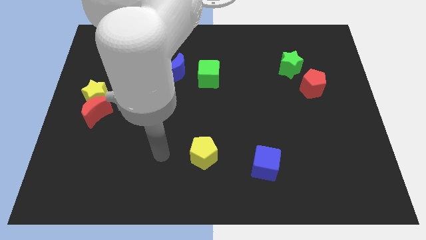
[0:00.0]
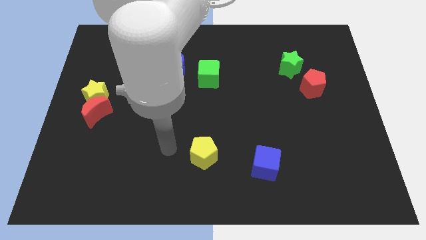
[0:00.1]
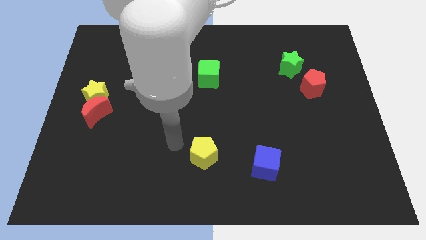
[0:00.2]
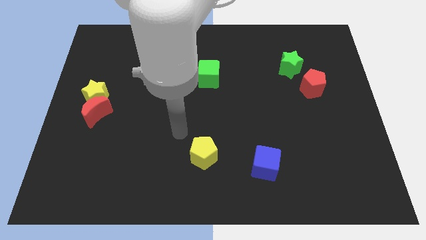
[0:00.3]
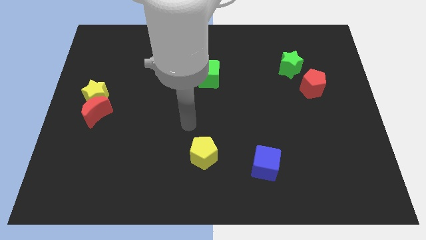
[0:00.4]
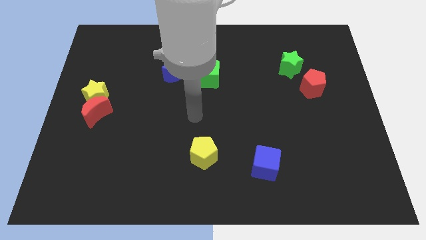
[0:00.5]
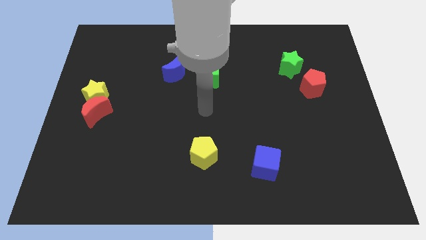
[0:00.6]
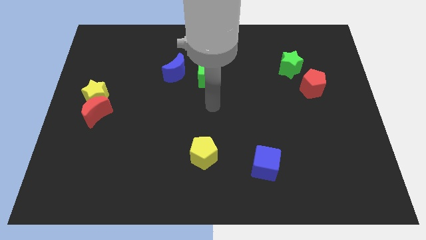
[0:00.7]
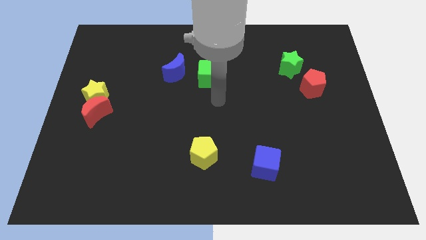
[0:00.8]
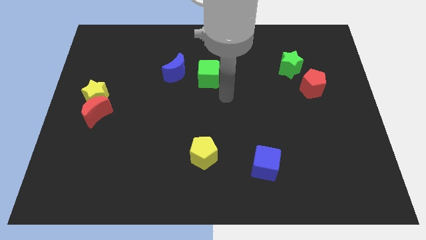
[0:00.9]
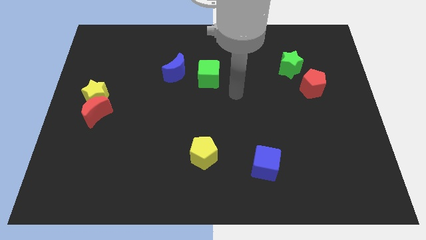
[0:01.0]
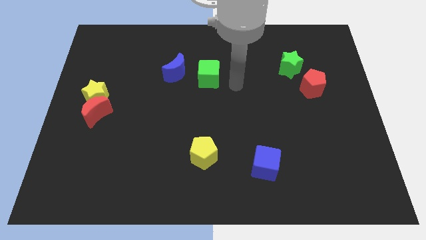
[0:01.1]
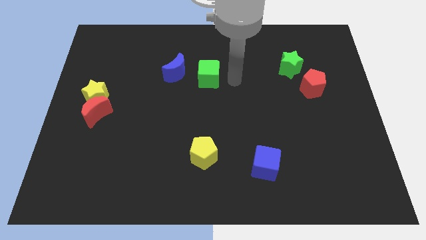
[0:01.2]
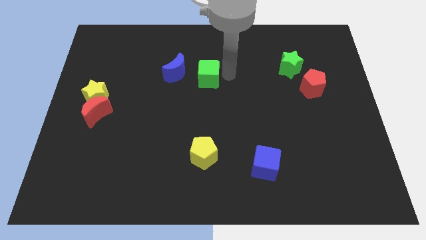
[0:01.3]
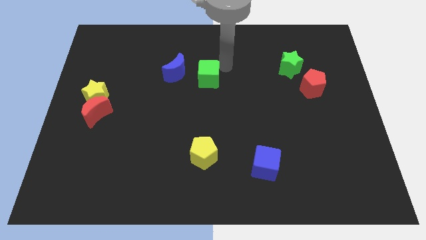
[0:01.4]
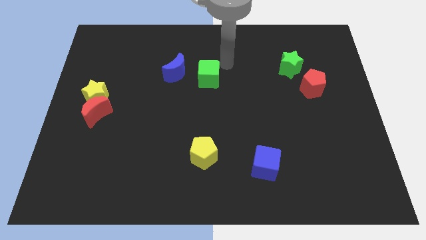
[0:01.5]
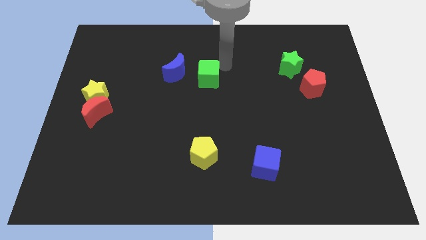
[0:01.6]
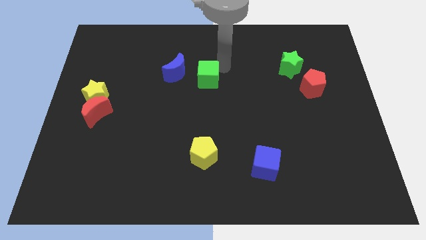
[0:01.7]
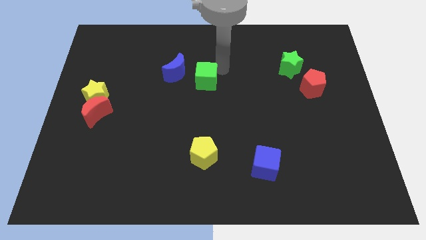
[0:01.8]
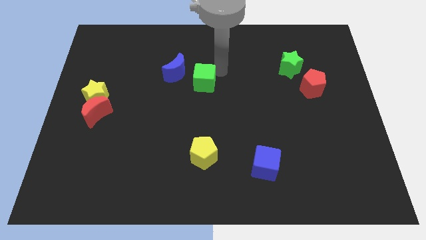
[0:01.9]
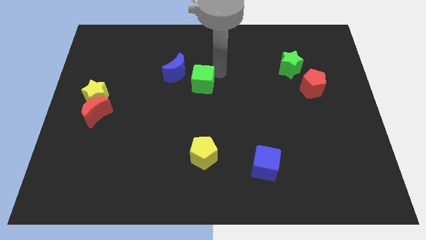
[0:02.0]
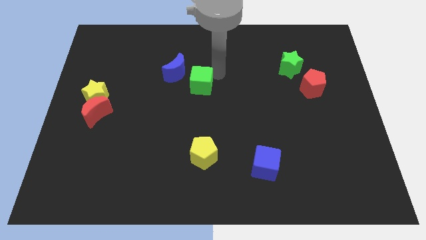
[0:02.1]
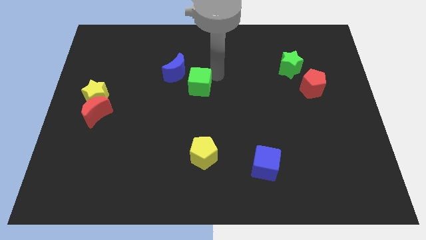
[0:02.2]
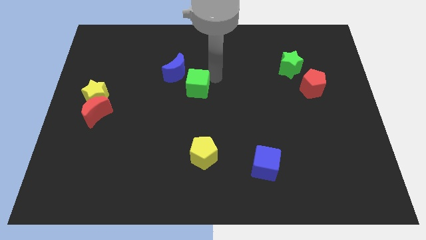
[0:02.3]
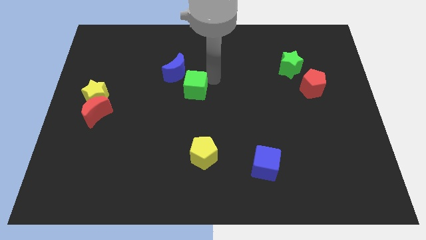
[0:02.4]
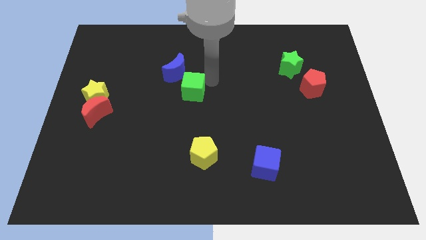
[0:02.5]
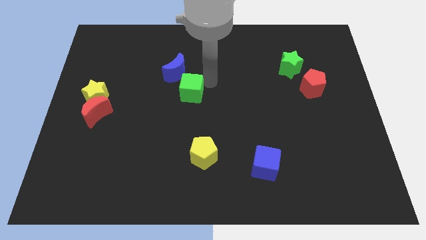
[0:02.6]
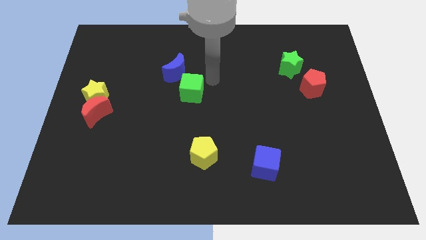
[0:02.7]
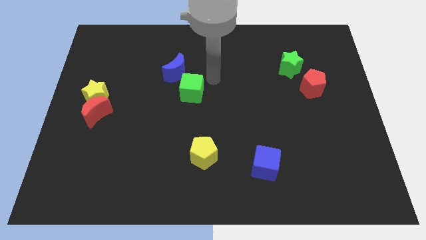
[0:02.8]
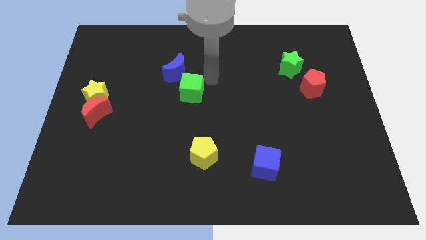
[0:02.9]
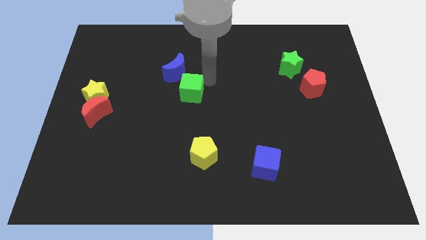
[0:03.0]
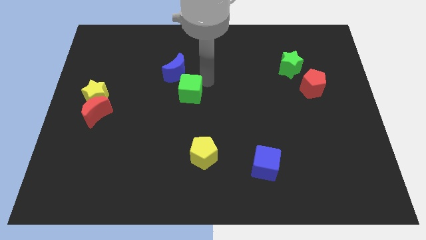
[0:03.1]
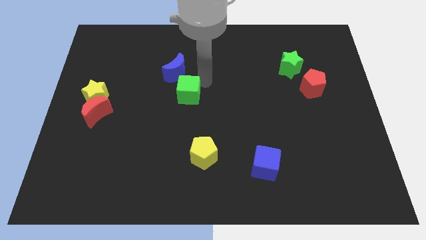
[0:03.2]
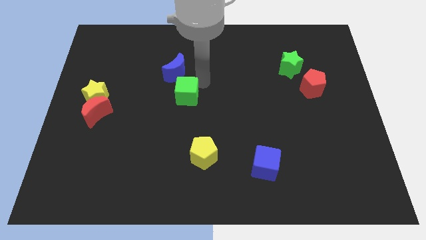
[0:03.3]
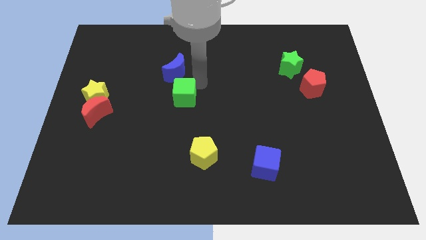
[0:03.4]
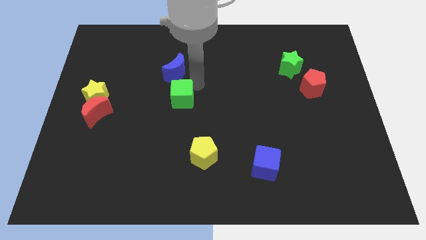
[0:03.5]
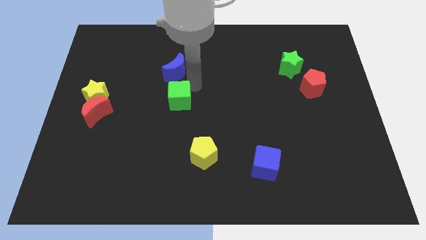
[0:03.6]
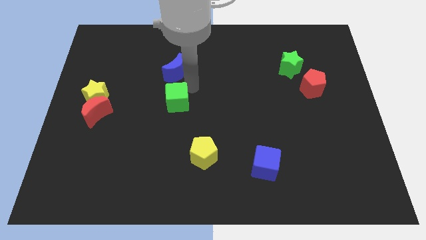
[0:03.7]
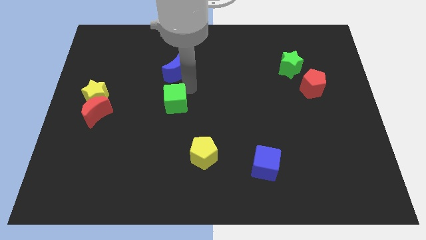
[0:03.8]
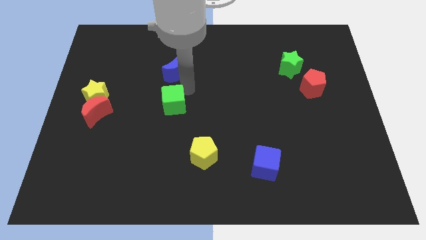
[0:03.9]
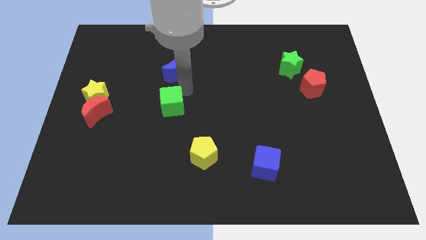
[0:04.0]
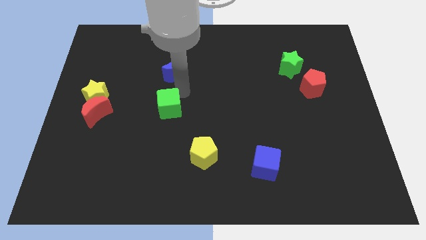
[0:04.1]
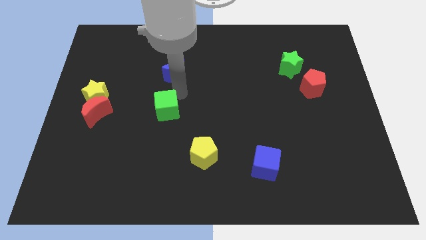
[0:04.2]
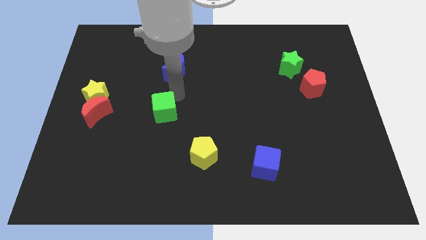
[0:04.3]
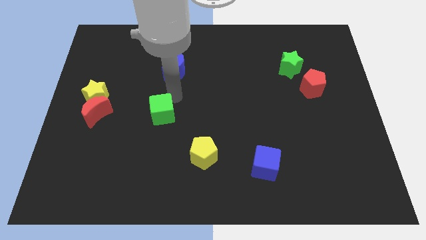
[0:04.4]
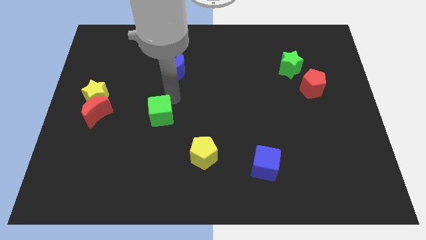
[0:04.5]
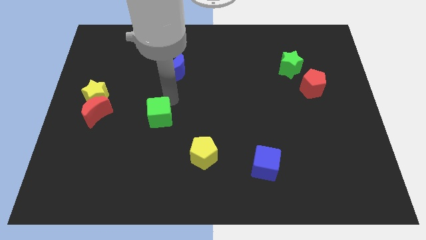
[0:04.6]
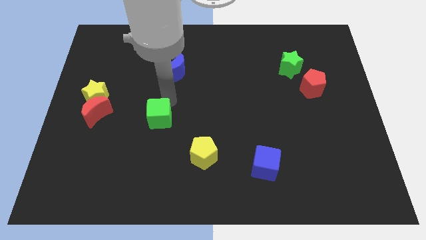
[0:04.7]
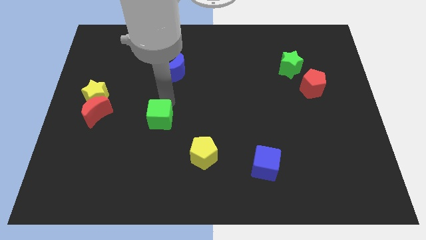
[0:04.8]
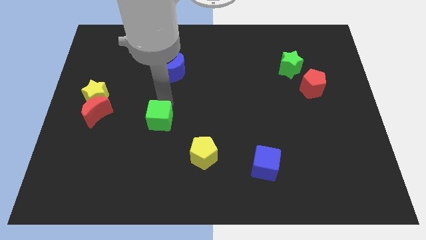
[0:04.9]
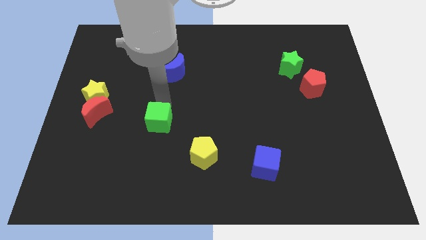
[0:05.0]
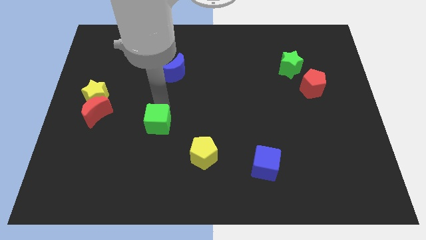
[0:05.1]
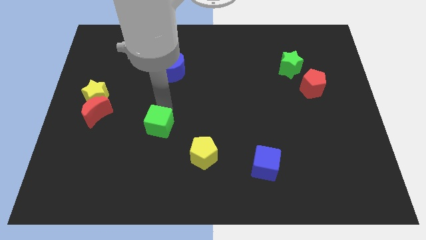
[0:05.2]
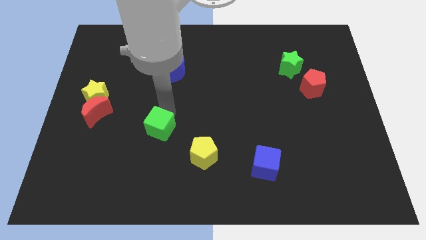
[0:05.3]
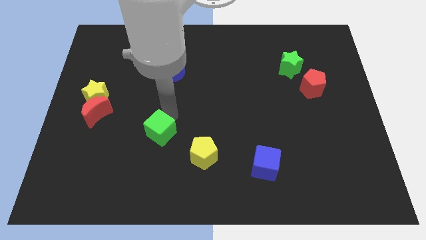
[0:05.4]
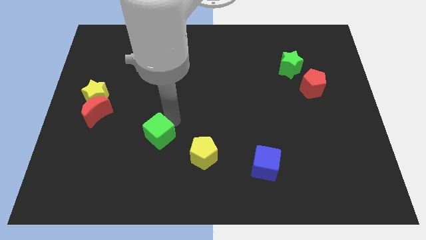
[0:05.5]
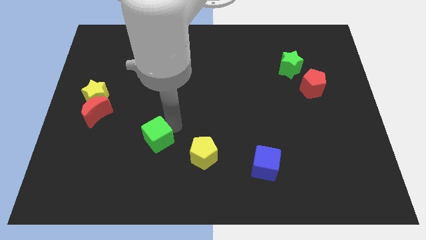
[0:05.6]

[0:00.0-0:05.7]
slide the green cube down and to the left

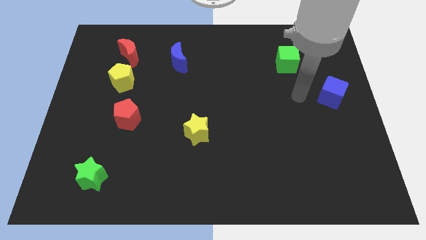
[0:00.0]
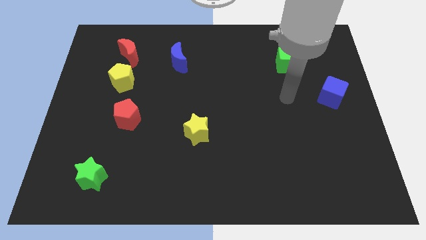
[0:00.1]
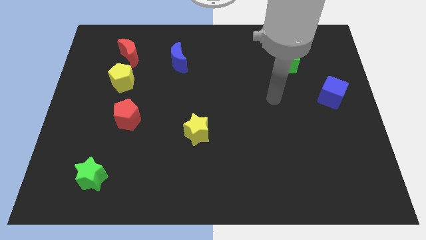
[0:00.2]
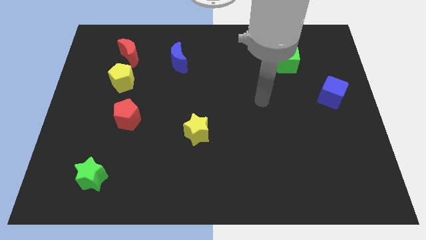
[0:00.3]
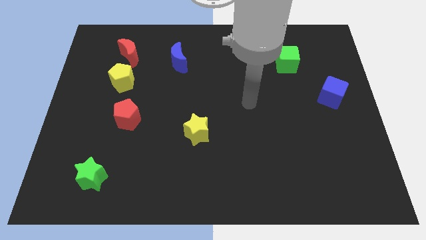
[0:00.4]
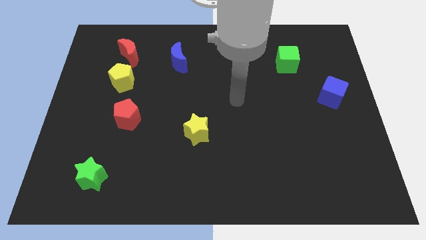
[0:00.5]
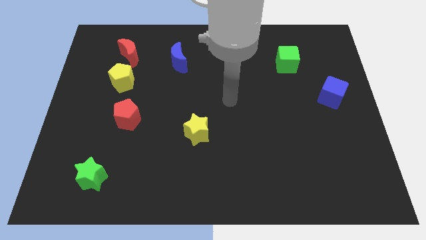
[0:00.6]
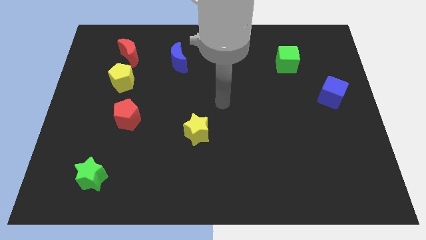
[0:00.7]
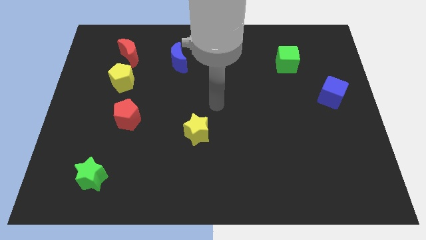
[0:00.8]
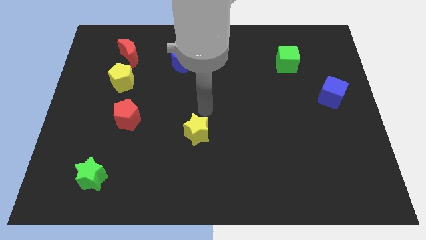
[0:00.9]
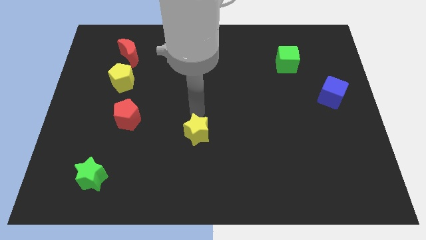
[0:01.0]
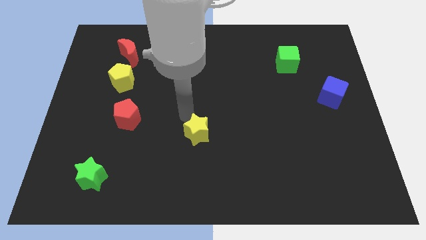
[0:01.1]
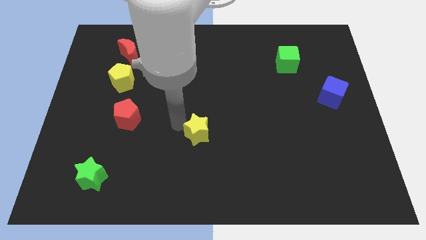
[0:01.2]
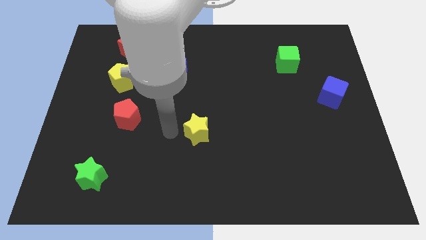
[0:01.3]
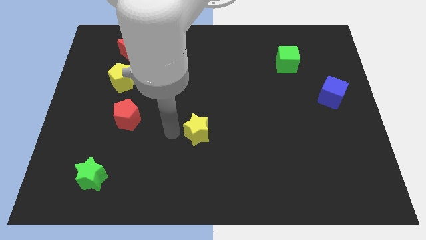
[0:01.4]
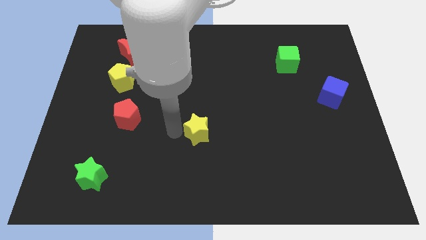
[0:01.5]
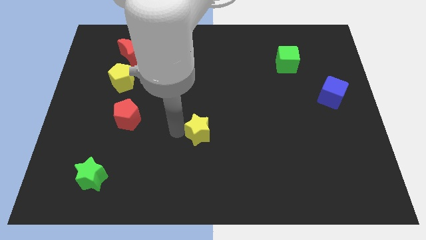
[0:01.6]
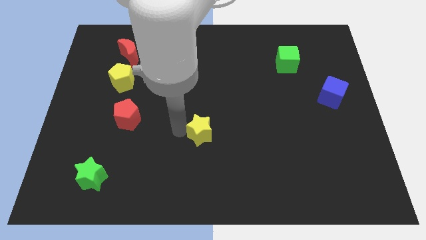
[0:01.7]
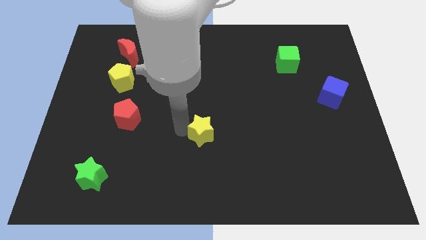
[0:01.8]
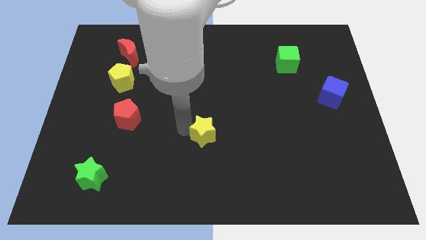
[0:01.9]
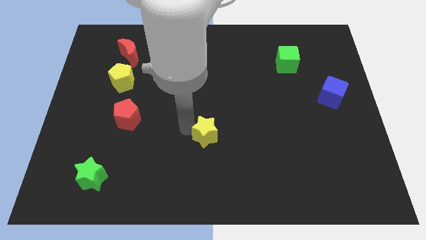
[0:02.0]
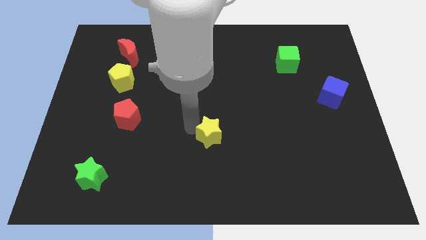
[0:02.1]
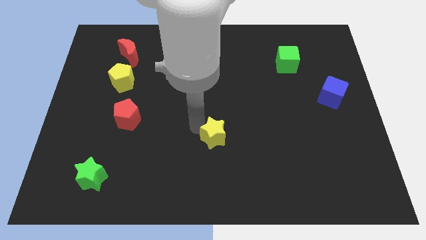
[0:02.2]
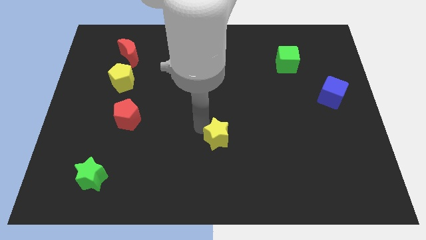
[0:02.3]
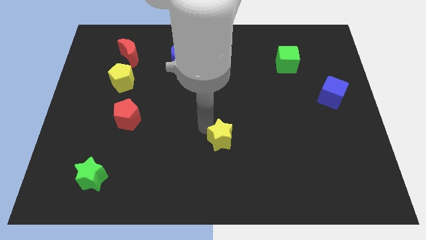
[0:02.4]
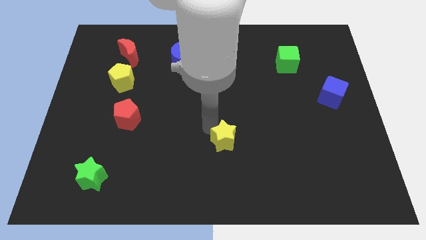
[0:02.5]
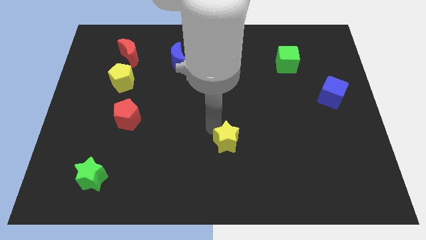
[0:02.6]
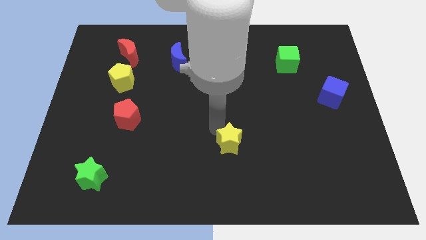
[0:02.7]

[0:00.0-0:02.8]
move the yellow star slightly to the right
